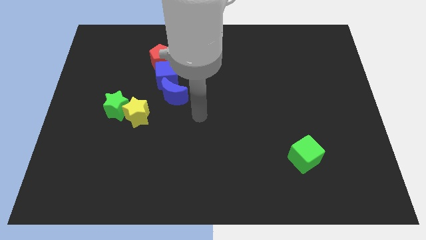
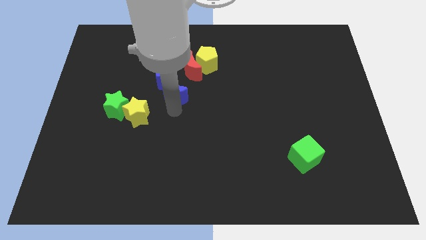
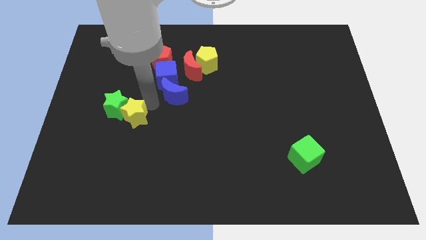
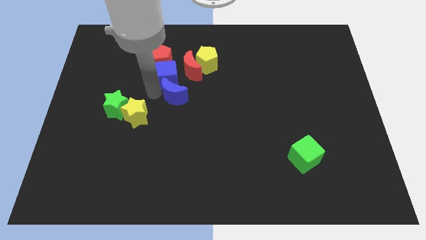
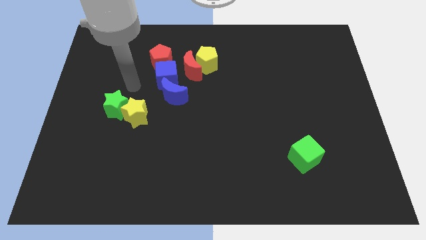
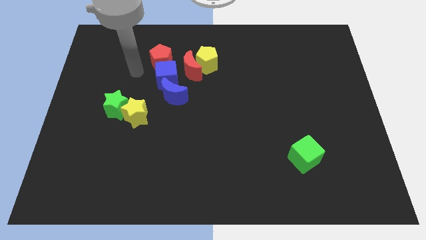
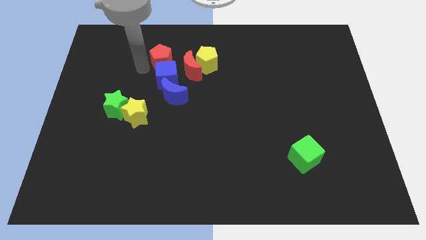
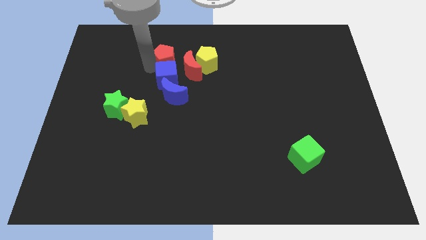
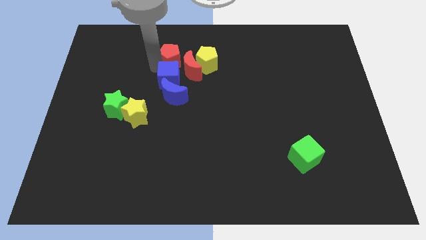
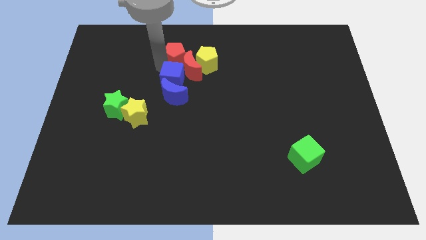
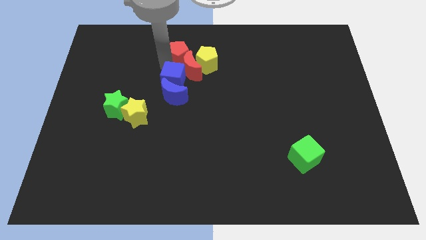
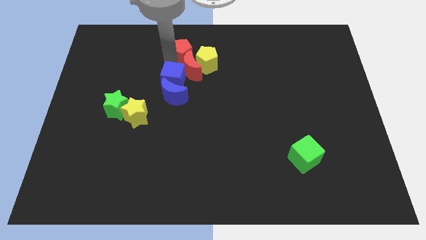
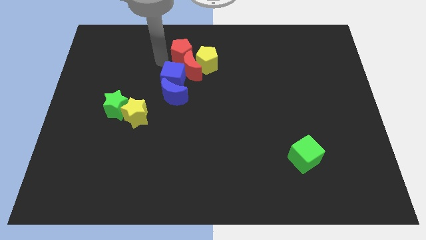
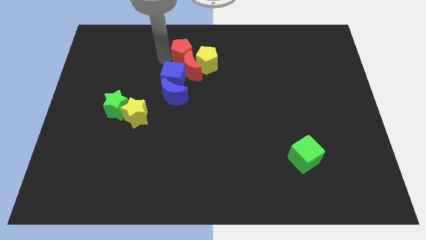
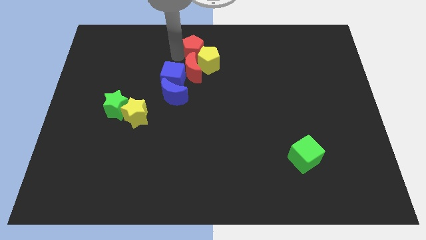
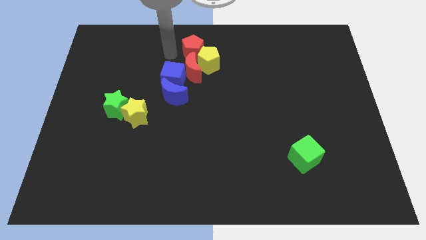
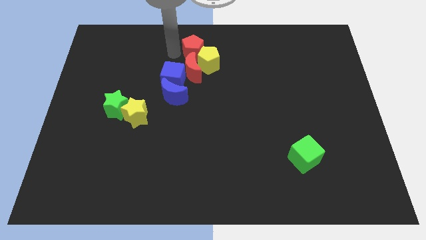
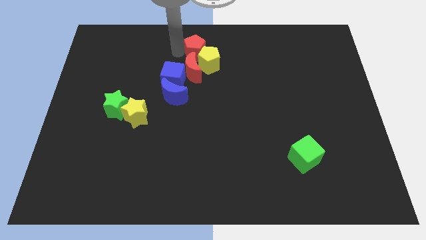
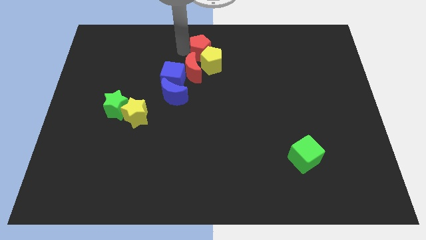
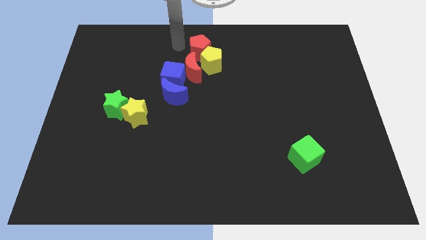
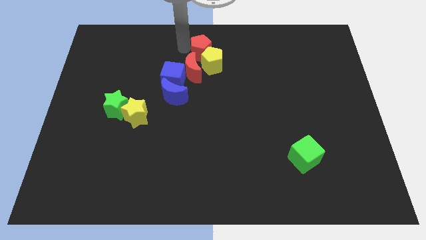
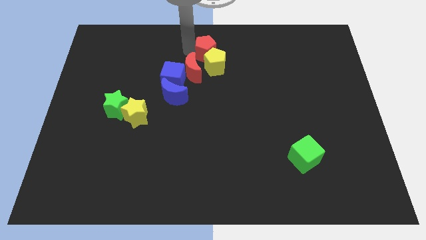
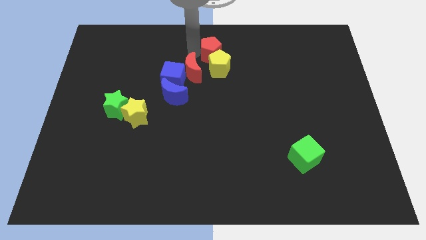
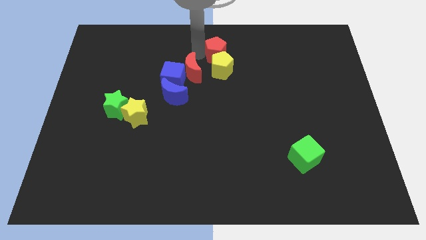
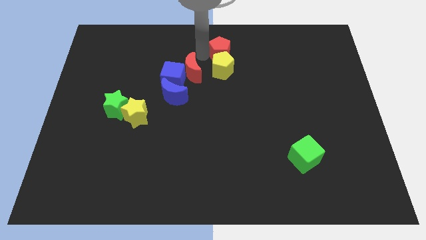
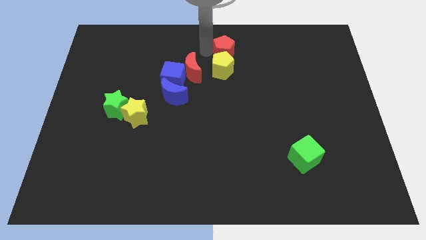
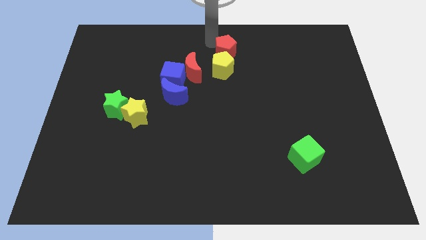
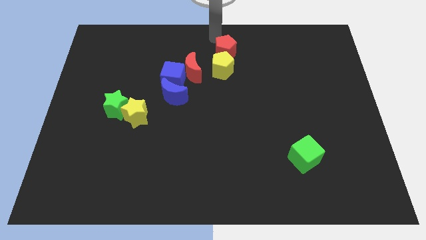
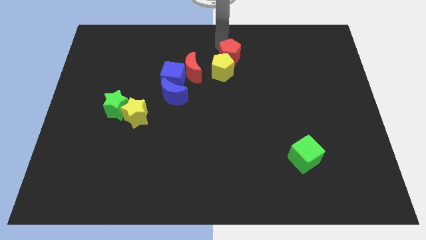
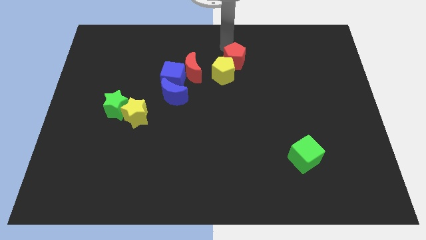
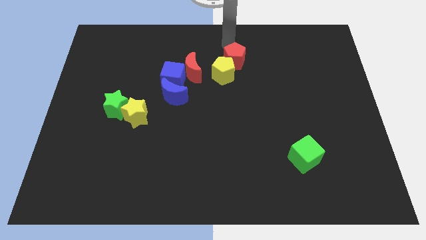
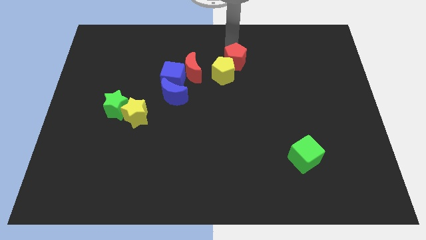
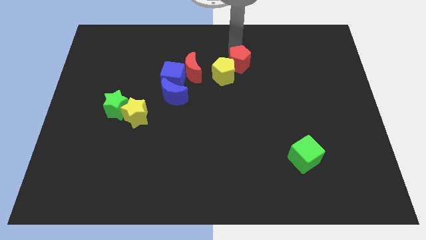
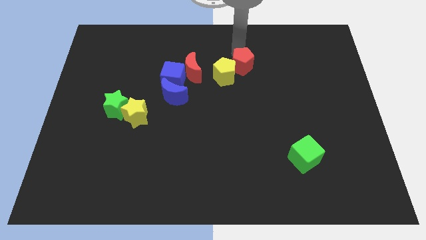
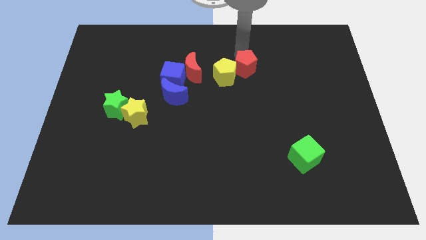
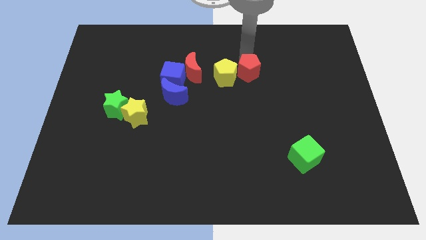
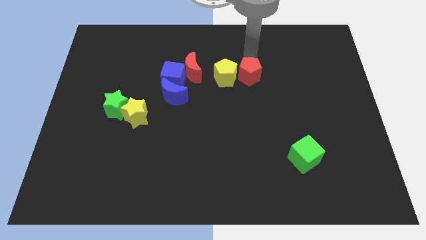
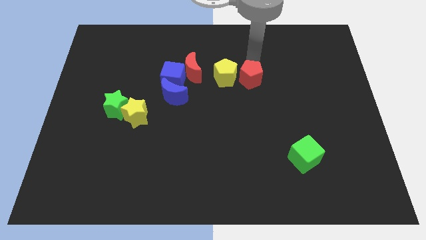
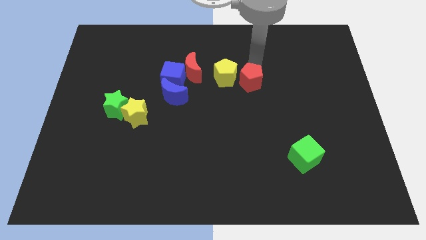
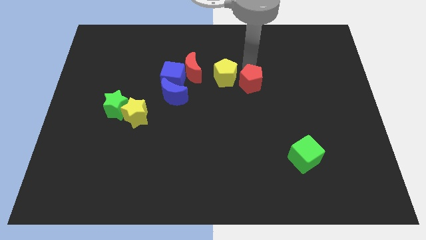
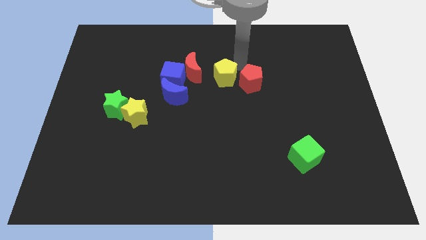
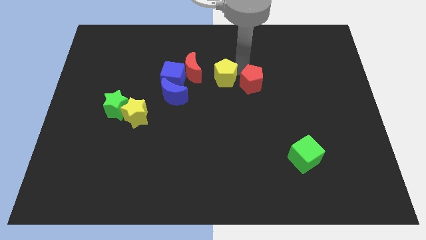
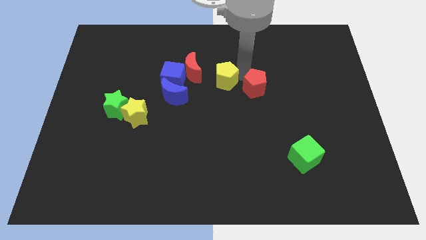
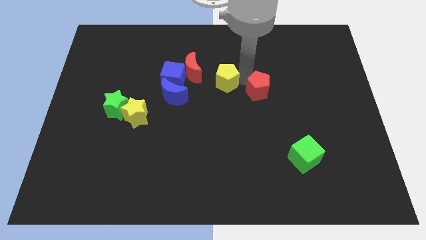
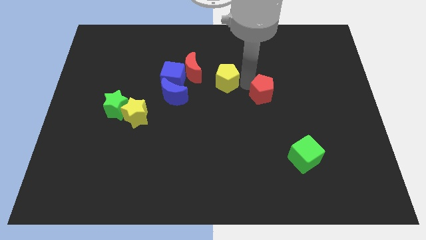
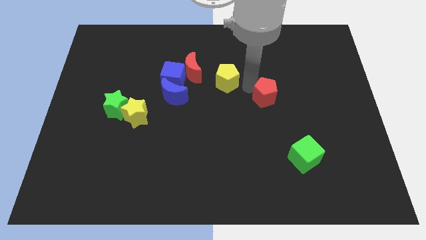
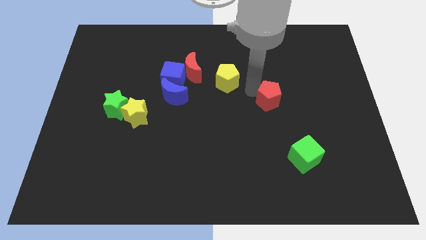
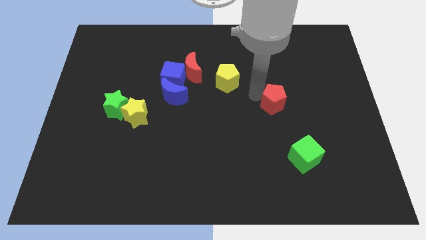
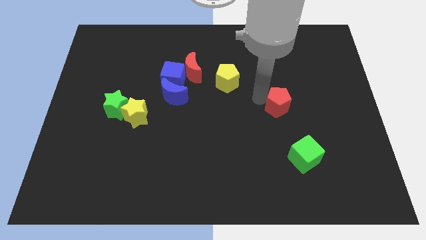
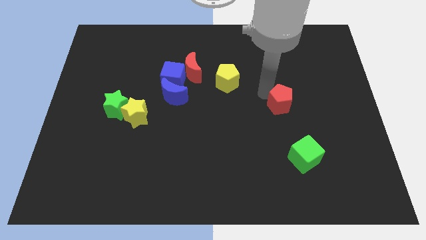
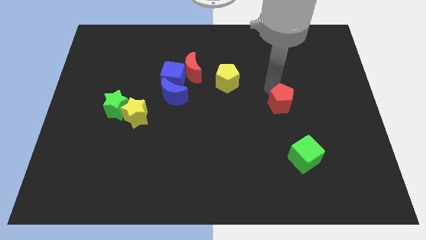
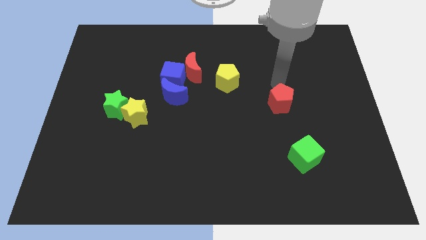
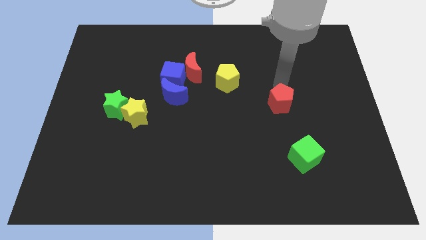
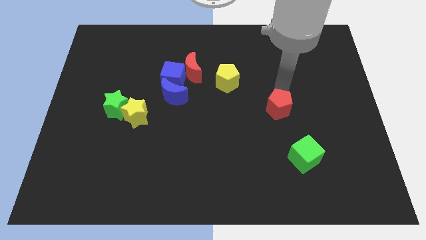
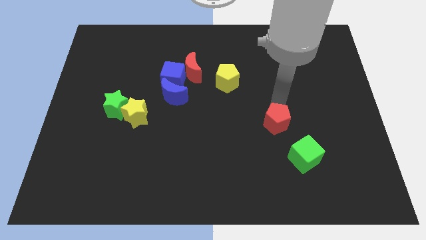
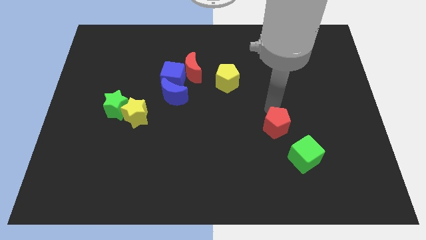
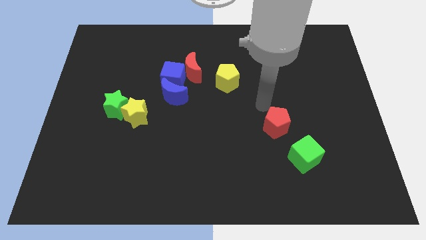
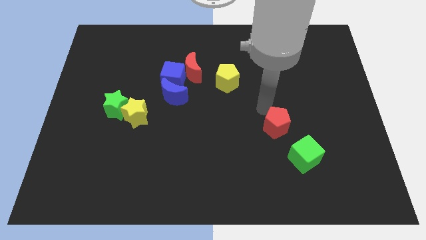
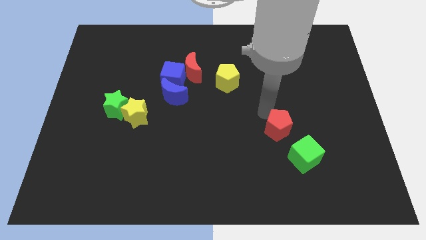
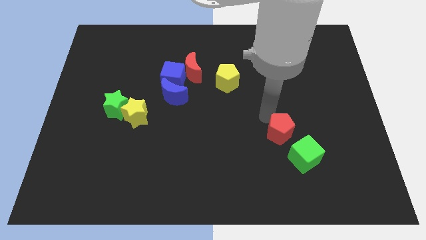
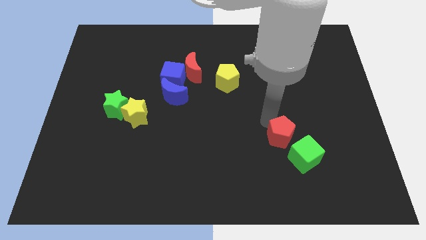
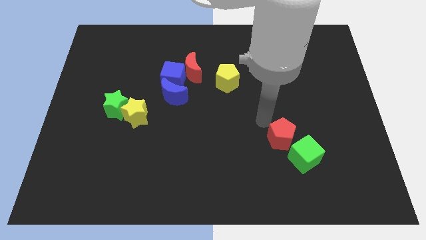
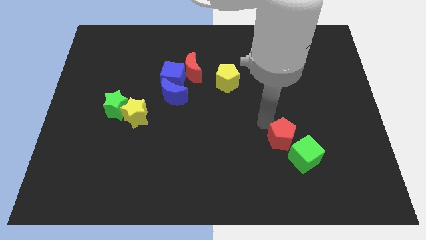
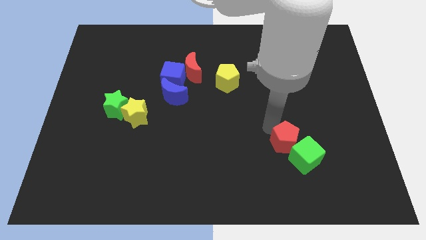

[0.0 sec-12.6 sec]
slide the red pentagon next to the green cube
